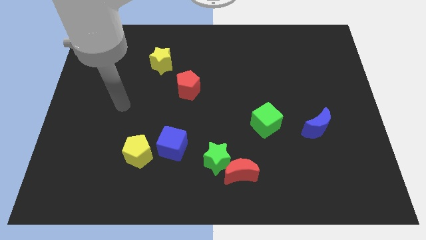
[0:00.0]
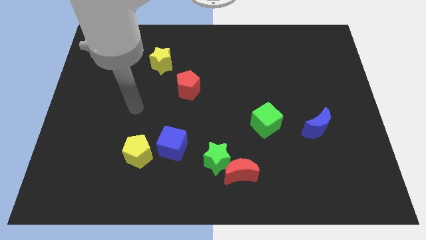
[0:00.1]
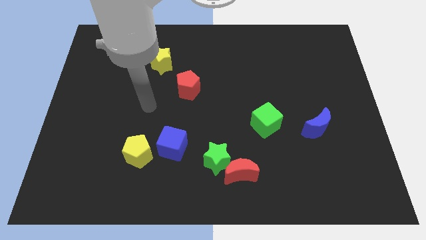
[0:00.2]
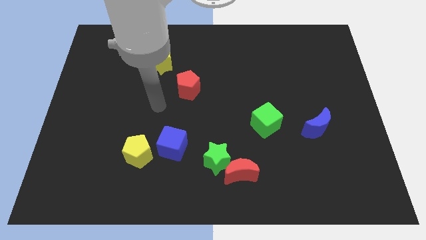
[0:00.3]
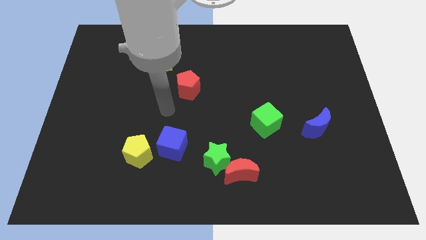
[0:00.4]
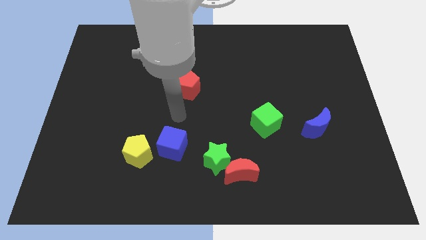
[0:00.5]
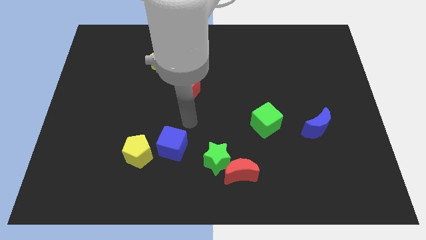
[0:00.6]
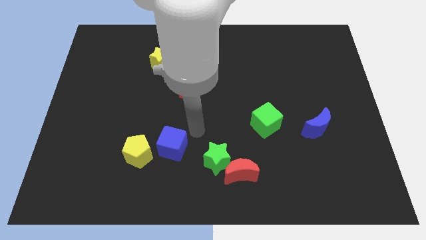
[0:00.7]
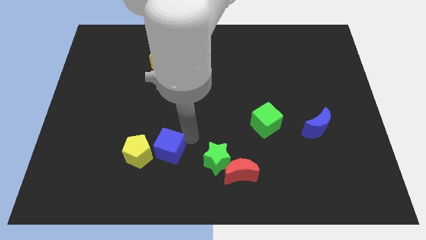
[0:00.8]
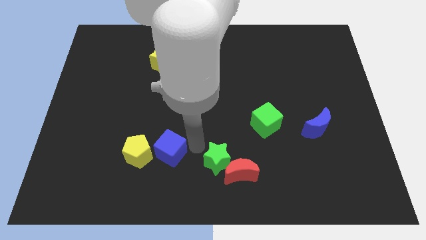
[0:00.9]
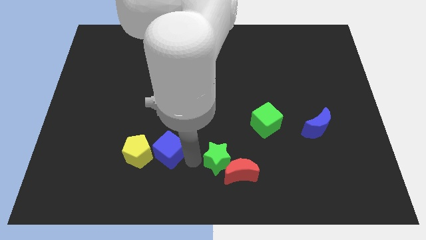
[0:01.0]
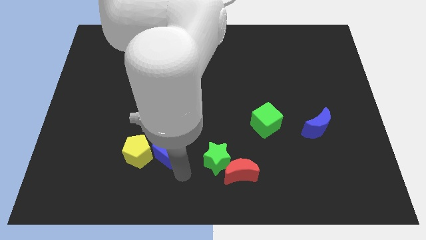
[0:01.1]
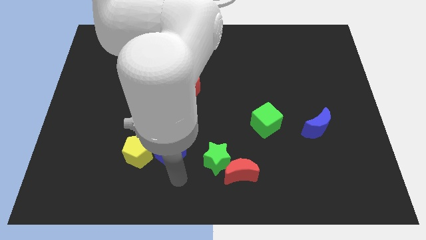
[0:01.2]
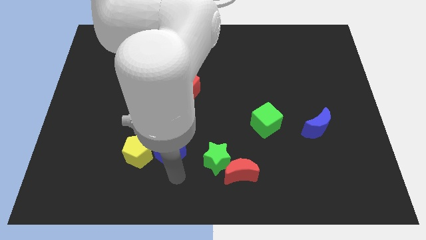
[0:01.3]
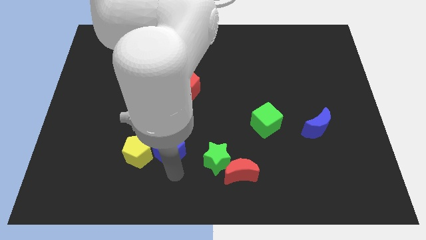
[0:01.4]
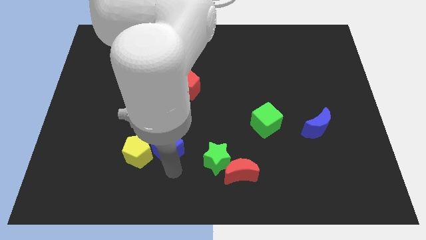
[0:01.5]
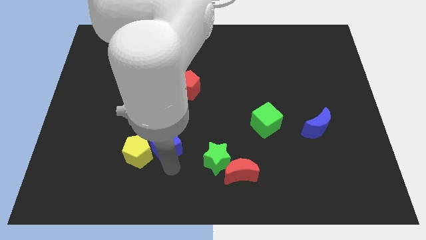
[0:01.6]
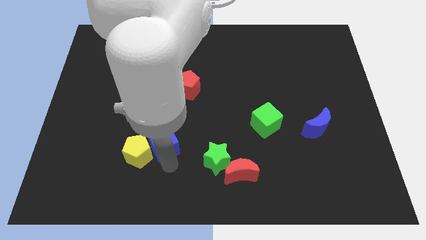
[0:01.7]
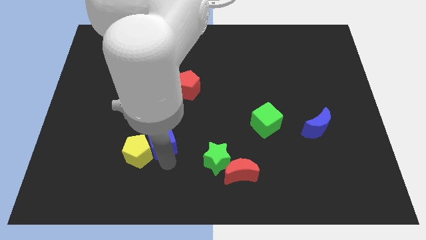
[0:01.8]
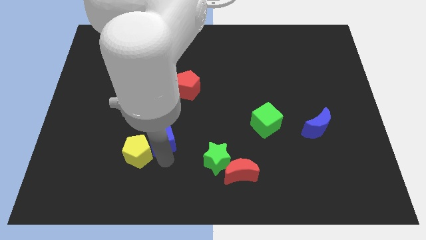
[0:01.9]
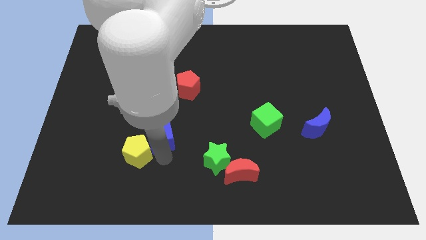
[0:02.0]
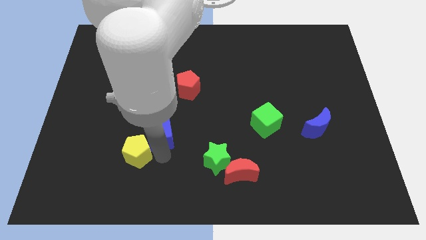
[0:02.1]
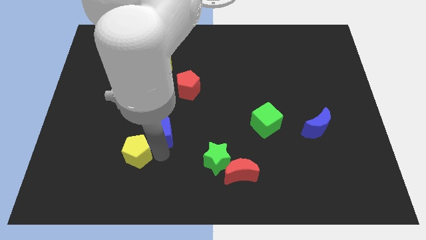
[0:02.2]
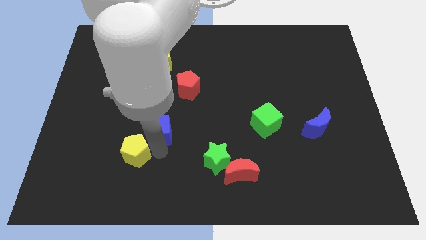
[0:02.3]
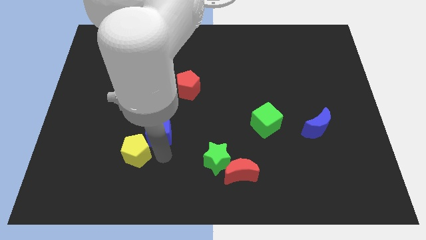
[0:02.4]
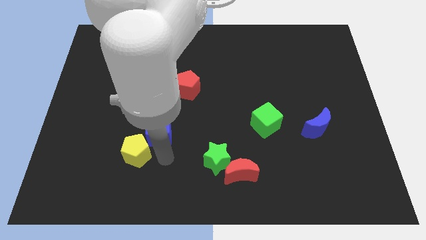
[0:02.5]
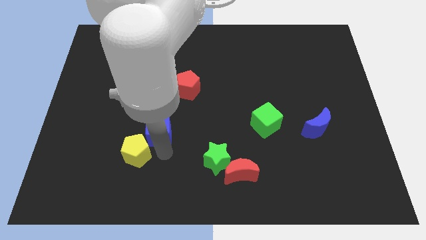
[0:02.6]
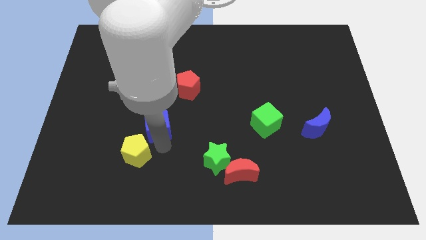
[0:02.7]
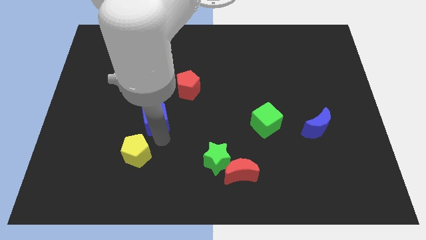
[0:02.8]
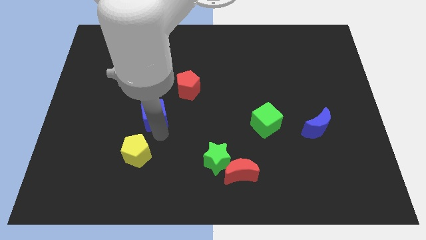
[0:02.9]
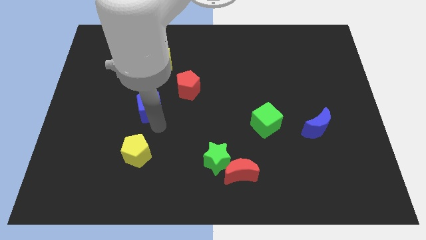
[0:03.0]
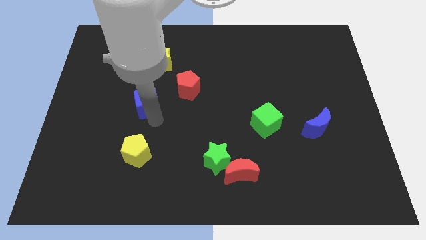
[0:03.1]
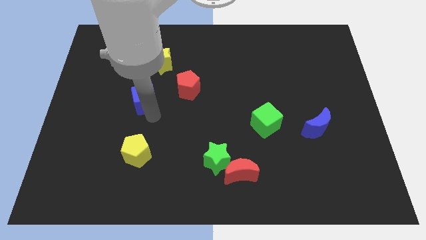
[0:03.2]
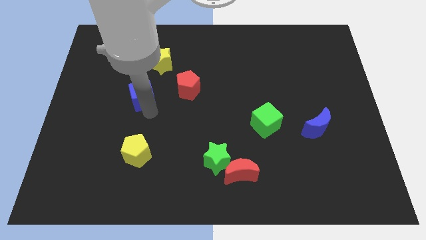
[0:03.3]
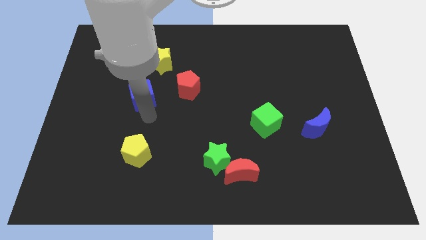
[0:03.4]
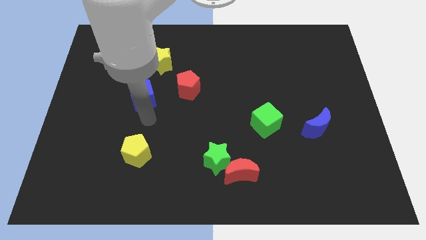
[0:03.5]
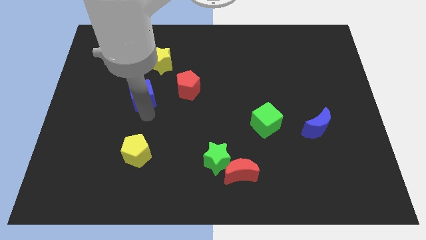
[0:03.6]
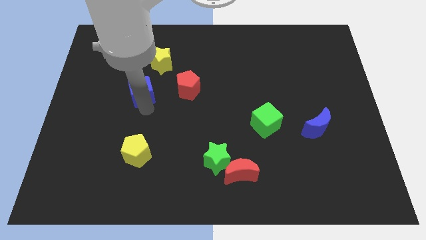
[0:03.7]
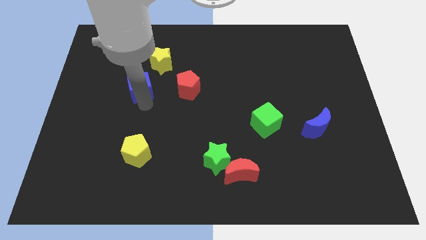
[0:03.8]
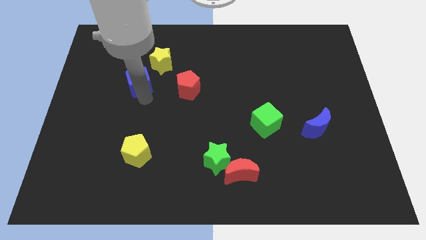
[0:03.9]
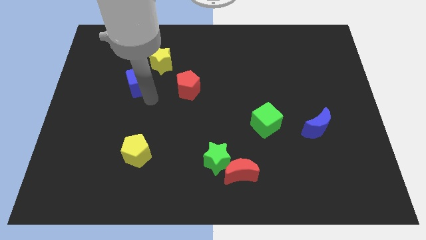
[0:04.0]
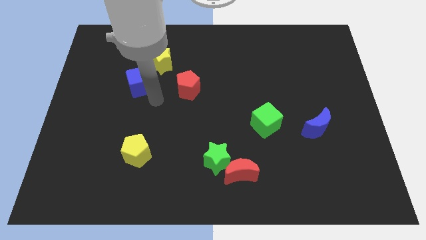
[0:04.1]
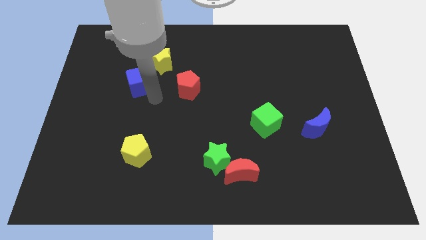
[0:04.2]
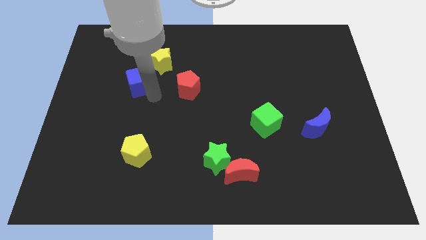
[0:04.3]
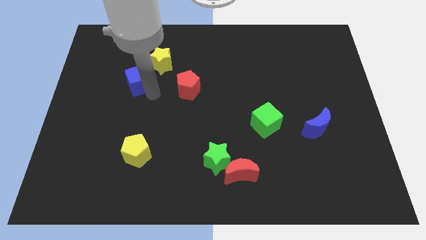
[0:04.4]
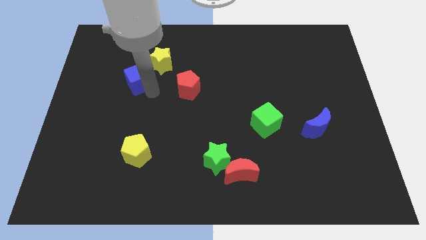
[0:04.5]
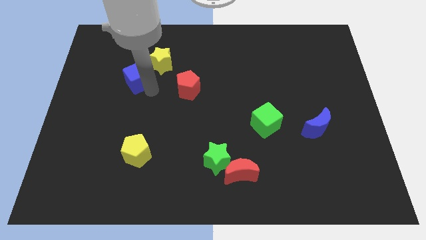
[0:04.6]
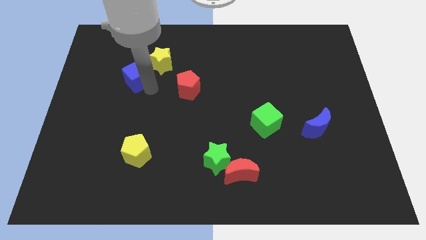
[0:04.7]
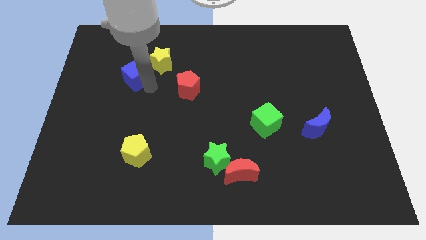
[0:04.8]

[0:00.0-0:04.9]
put the blue cube to the left side of the yellow star

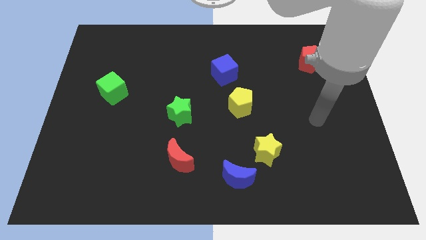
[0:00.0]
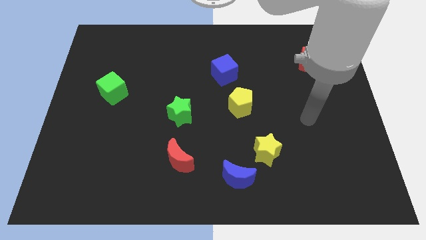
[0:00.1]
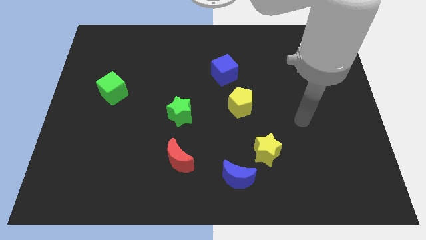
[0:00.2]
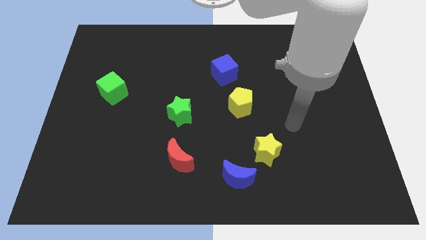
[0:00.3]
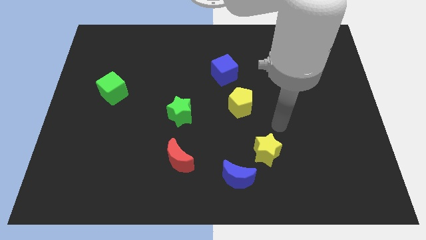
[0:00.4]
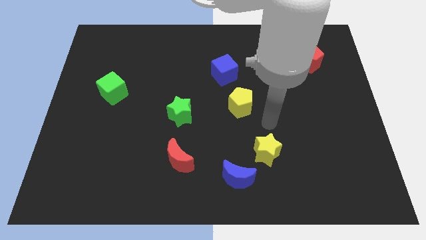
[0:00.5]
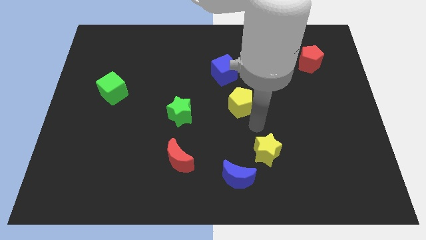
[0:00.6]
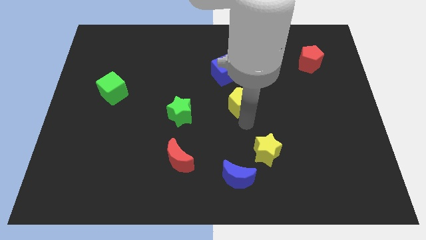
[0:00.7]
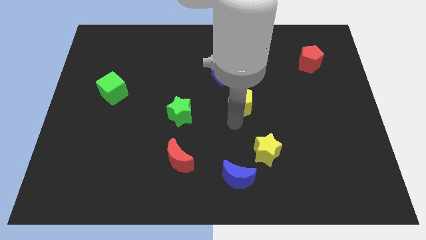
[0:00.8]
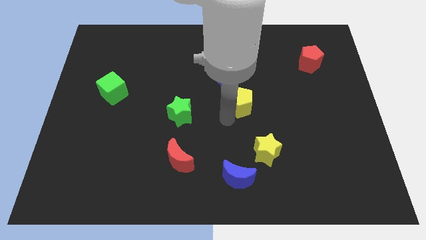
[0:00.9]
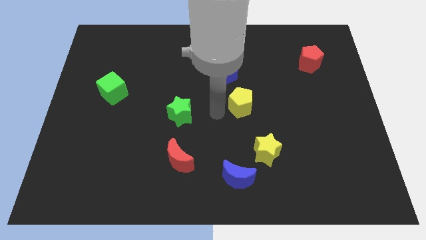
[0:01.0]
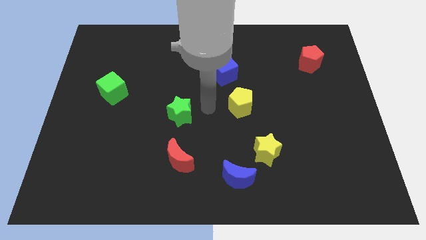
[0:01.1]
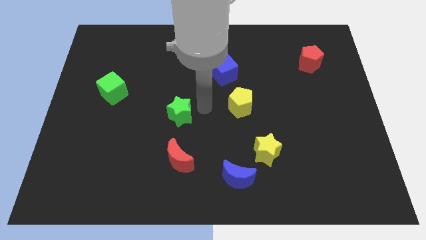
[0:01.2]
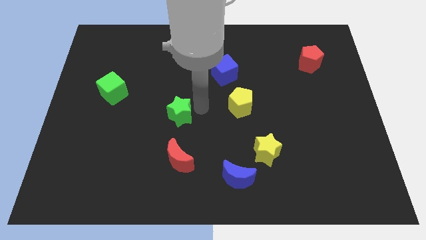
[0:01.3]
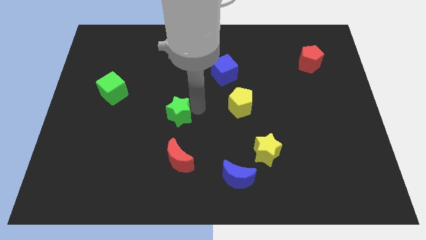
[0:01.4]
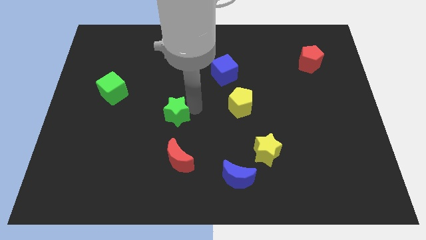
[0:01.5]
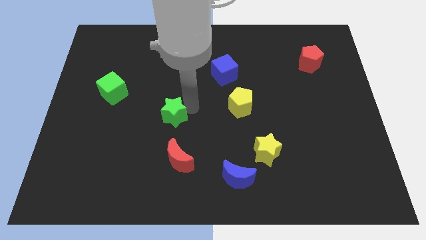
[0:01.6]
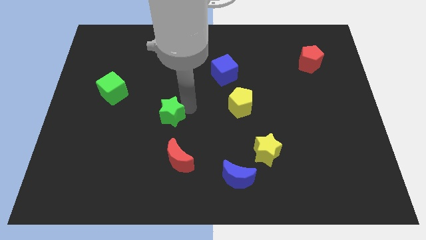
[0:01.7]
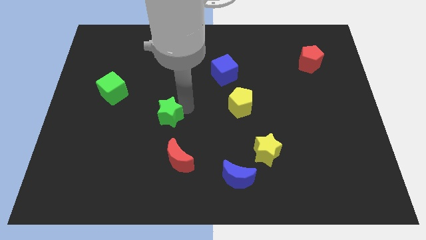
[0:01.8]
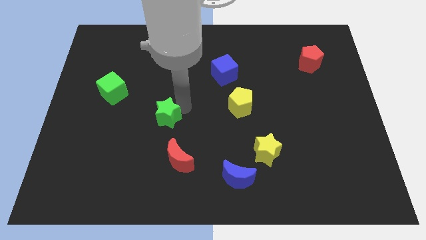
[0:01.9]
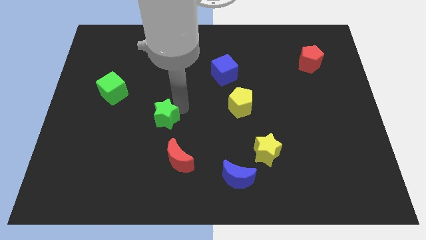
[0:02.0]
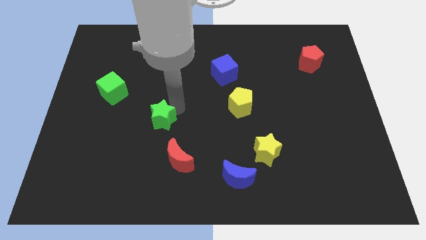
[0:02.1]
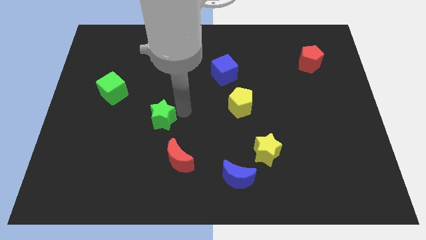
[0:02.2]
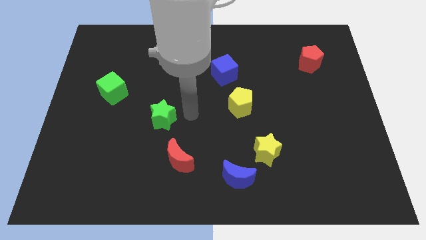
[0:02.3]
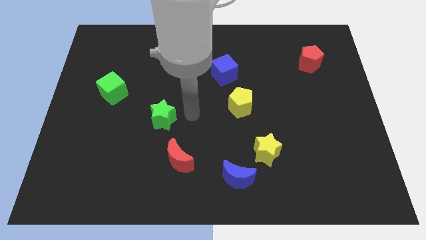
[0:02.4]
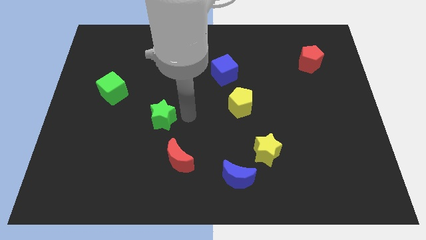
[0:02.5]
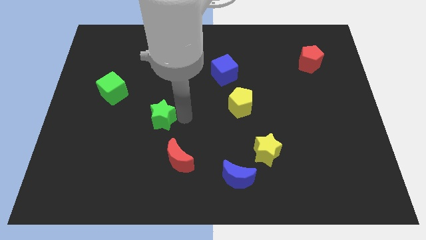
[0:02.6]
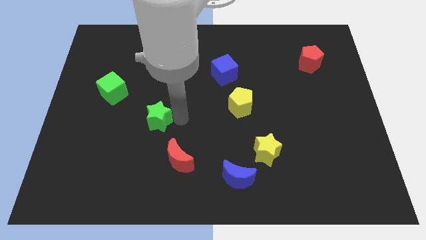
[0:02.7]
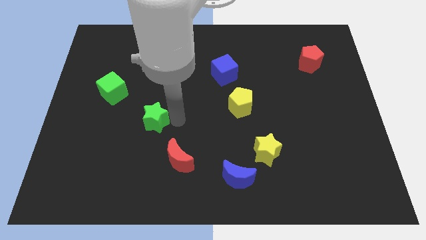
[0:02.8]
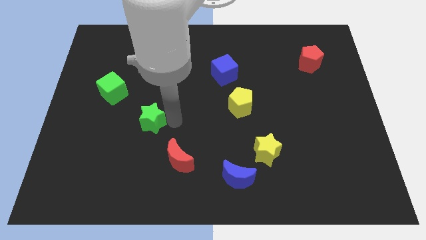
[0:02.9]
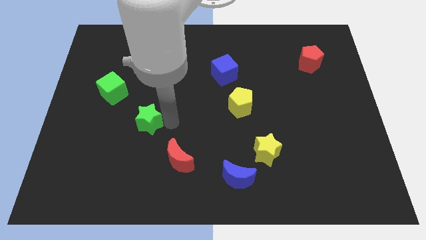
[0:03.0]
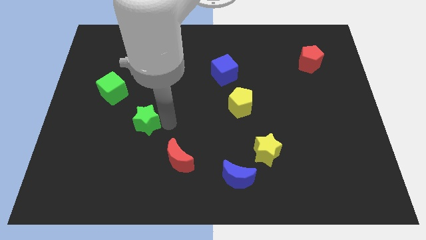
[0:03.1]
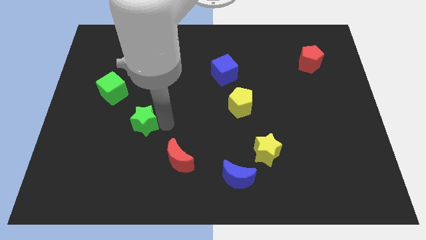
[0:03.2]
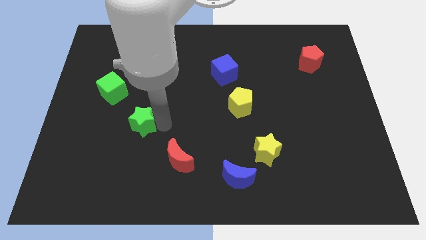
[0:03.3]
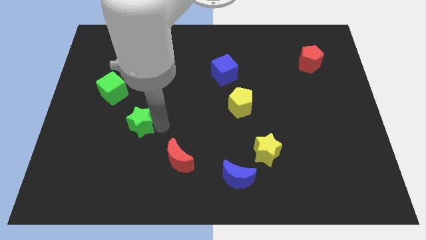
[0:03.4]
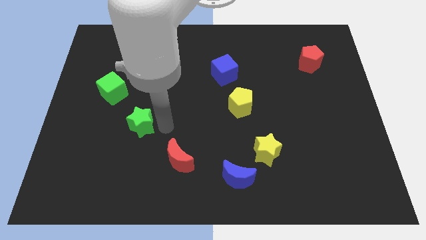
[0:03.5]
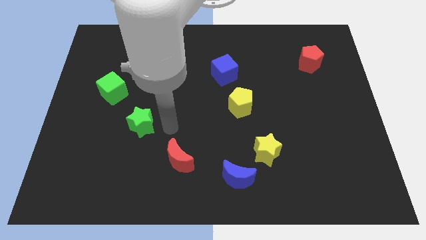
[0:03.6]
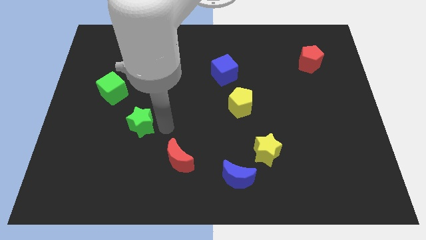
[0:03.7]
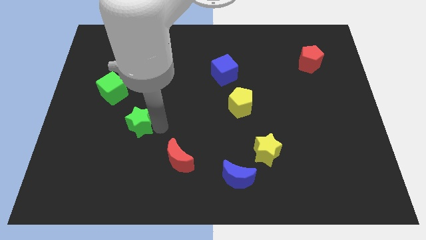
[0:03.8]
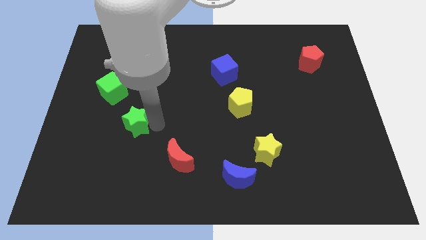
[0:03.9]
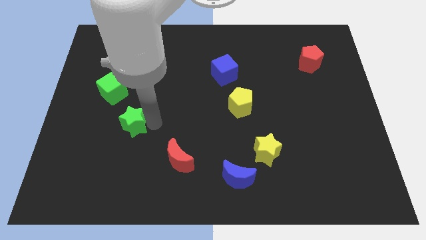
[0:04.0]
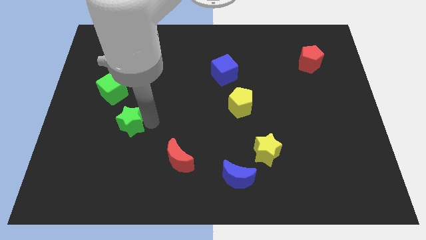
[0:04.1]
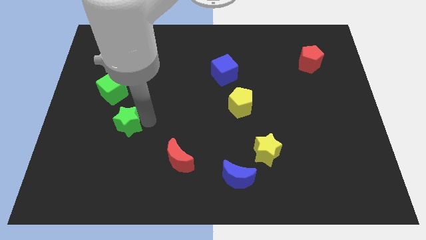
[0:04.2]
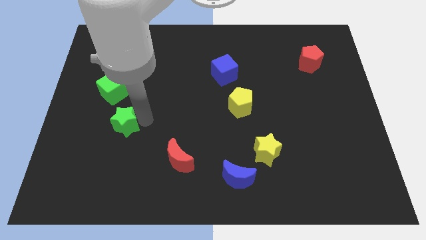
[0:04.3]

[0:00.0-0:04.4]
push the green star below the green cube
